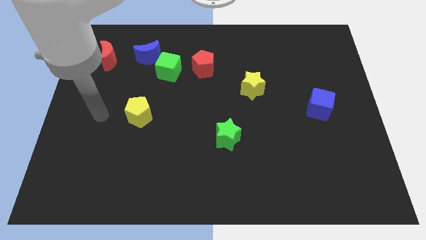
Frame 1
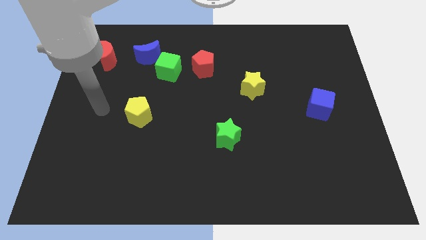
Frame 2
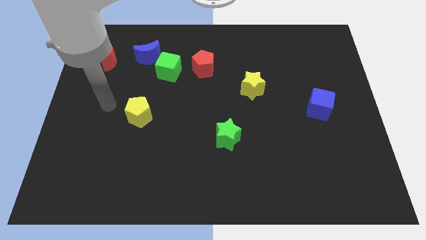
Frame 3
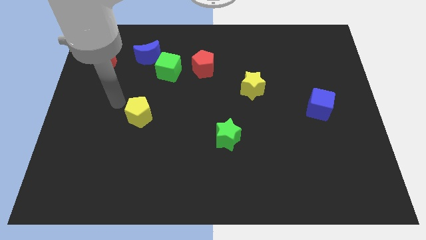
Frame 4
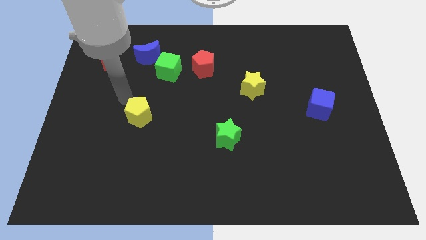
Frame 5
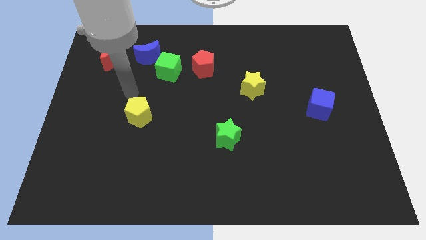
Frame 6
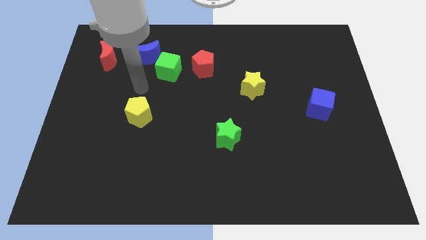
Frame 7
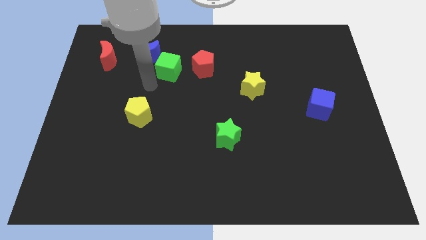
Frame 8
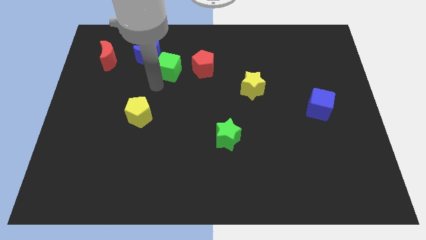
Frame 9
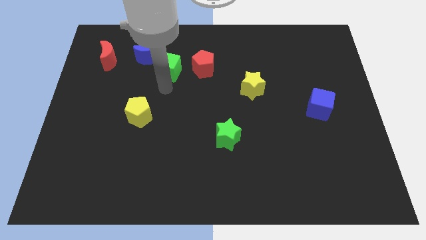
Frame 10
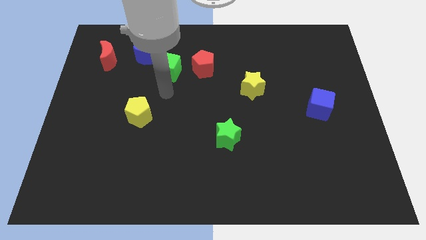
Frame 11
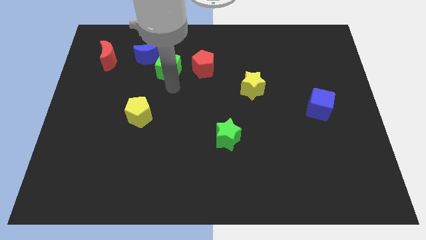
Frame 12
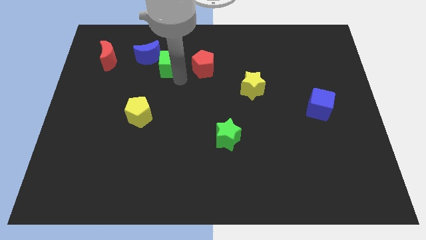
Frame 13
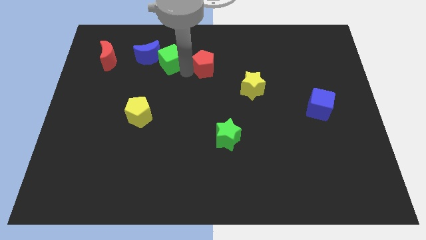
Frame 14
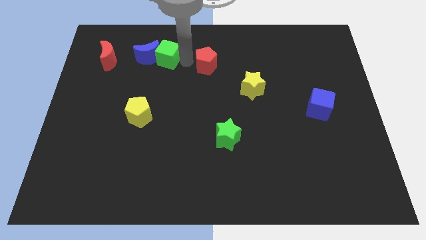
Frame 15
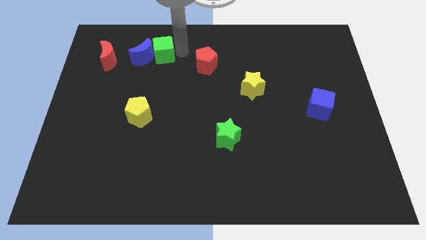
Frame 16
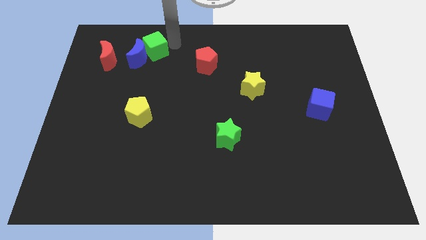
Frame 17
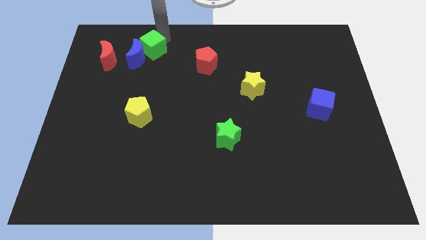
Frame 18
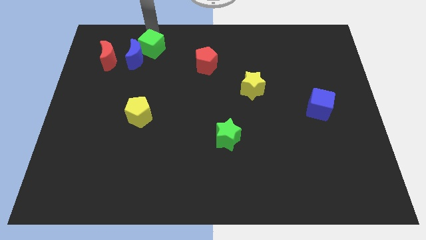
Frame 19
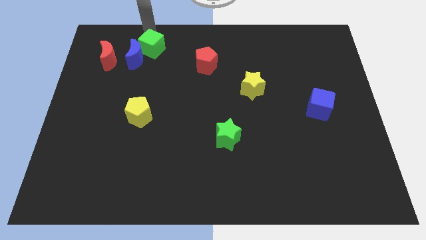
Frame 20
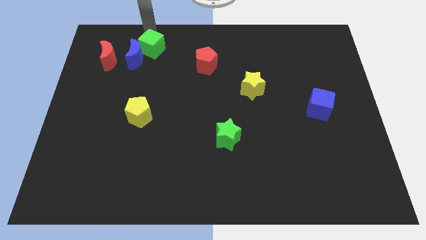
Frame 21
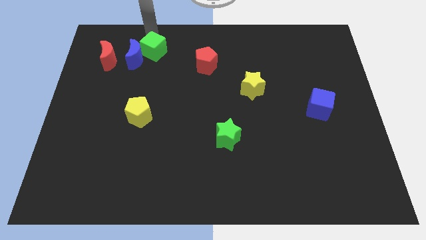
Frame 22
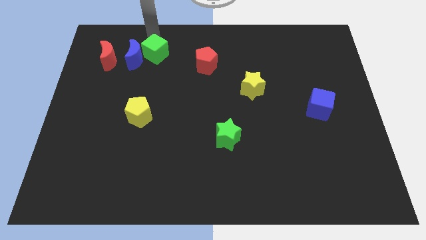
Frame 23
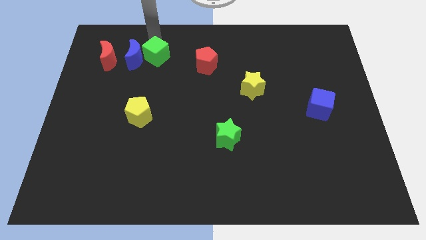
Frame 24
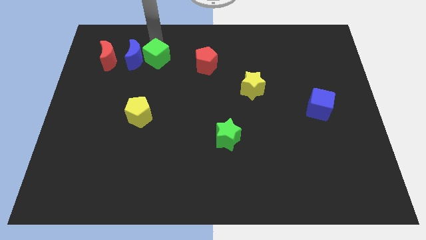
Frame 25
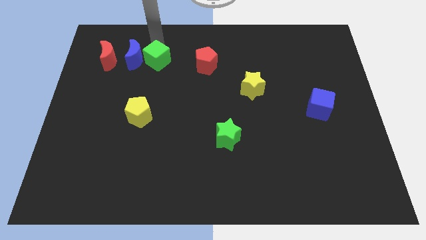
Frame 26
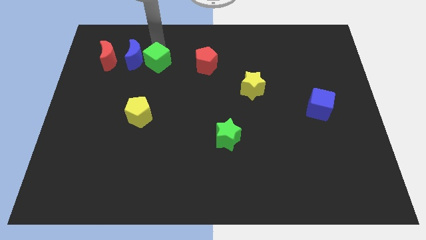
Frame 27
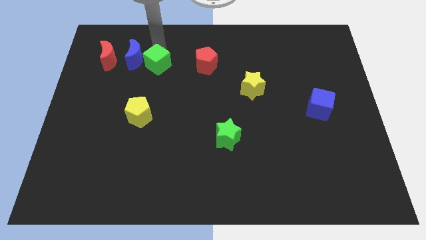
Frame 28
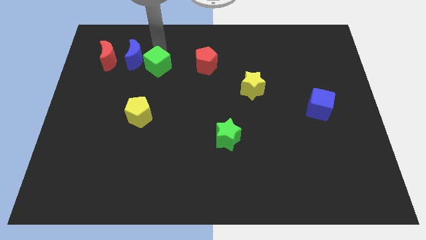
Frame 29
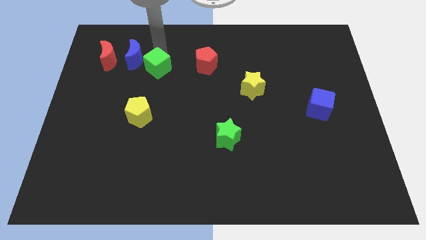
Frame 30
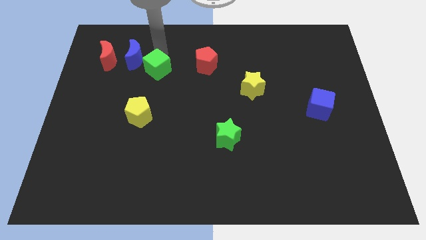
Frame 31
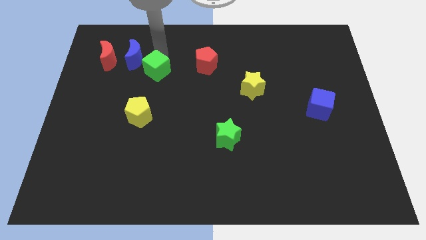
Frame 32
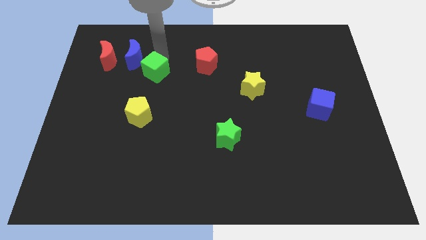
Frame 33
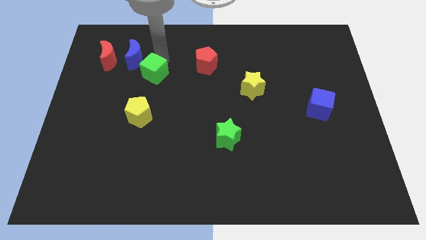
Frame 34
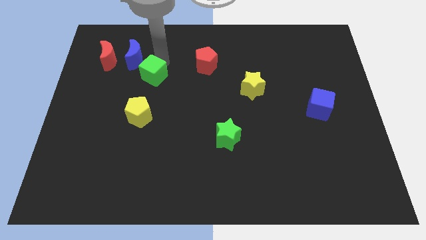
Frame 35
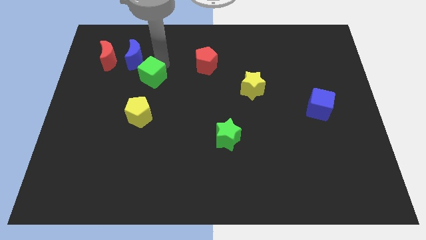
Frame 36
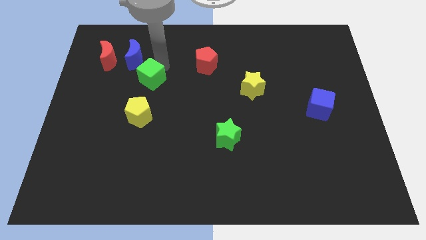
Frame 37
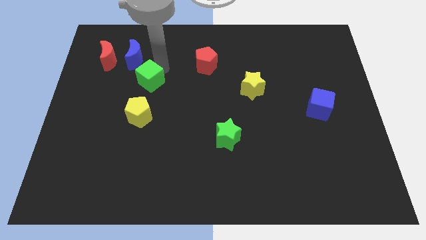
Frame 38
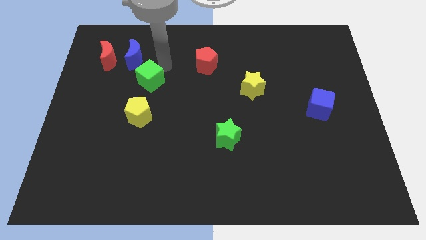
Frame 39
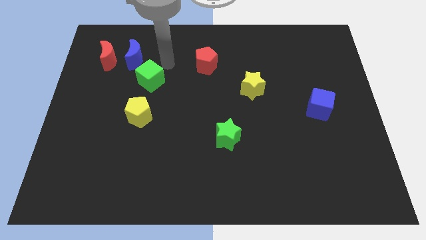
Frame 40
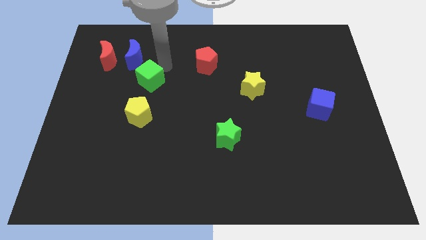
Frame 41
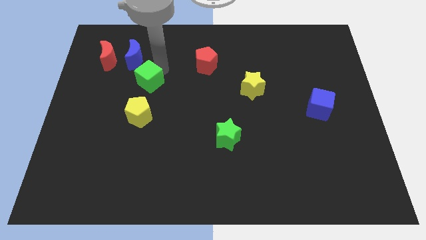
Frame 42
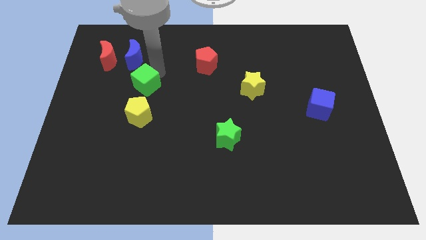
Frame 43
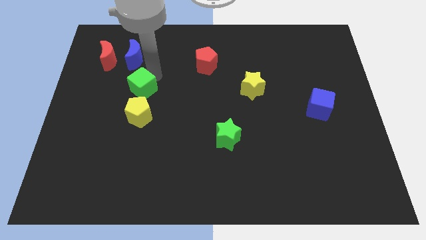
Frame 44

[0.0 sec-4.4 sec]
pull the green cube apart from the blue moon and red pentagon

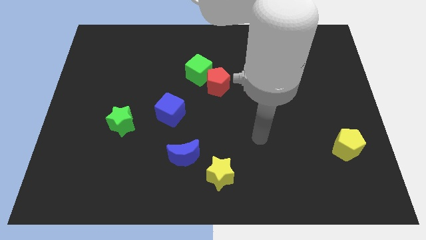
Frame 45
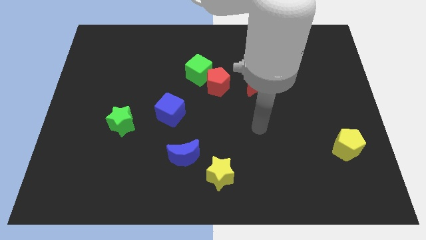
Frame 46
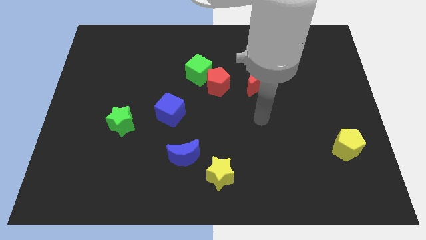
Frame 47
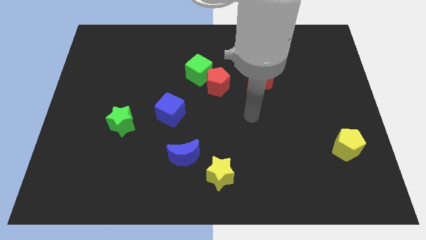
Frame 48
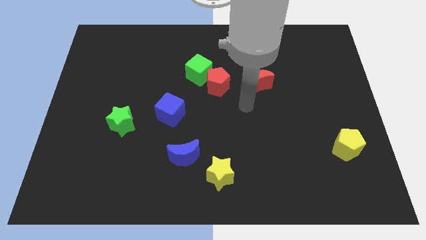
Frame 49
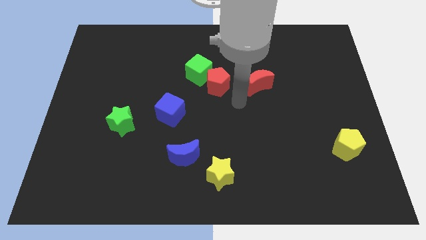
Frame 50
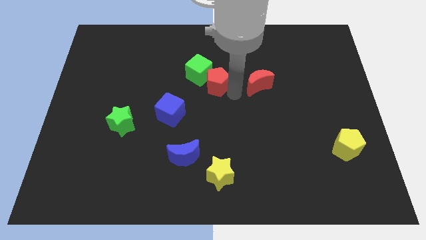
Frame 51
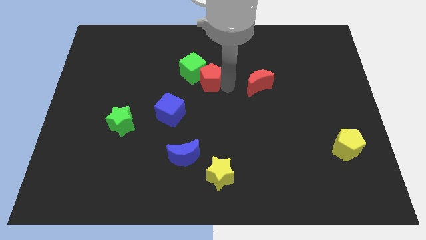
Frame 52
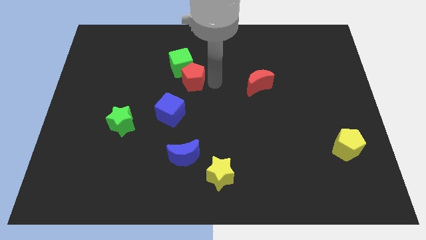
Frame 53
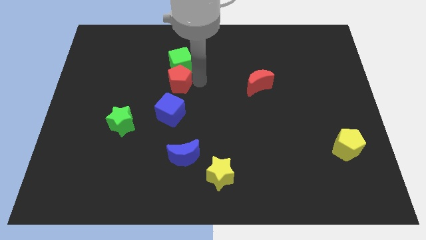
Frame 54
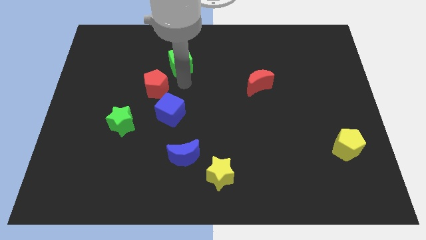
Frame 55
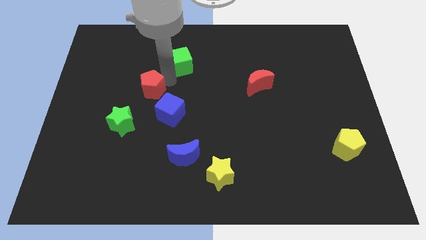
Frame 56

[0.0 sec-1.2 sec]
move the green cube away from the red pentagon

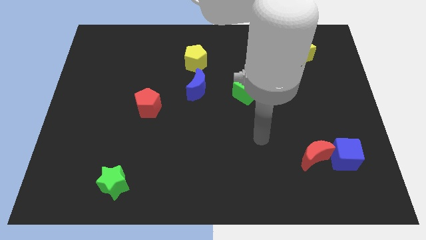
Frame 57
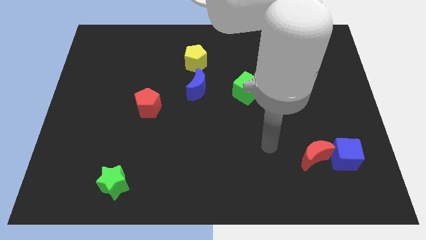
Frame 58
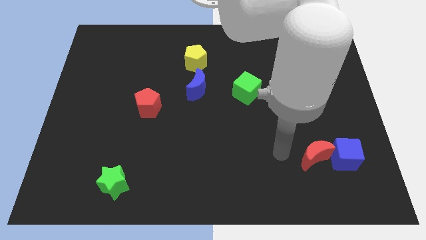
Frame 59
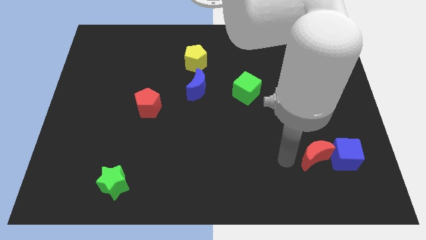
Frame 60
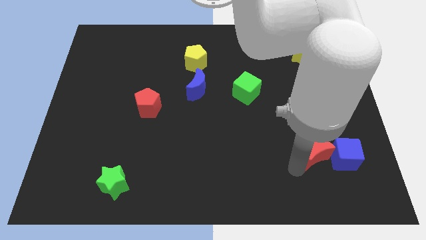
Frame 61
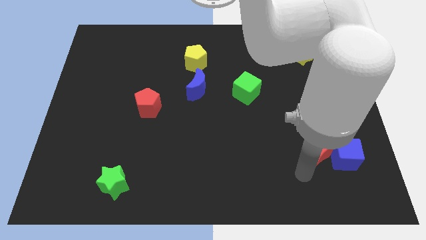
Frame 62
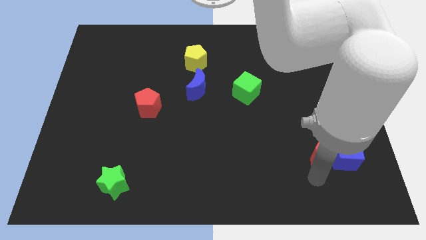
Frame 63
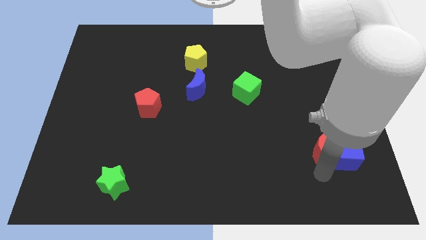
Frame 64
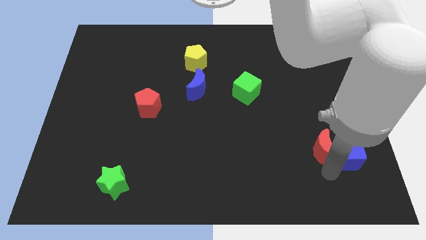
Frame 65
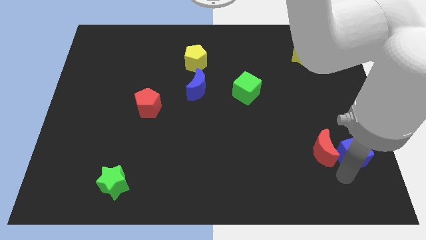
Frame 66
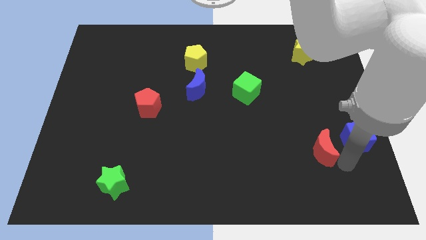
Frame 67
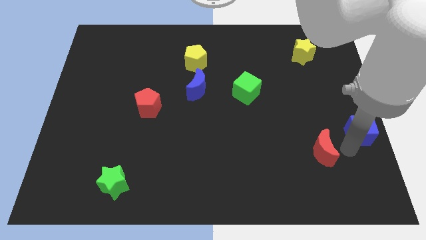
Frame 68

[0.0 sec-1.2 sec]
pull the red moon apart from the blue cube

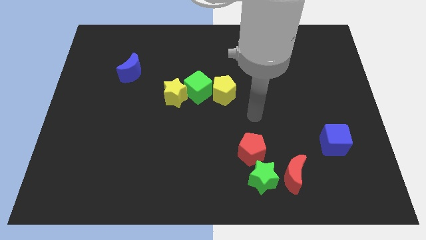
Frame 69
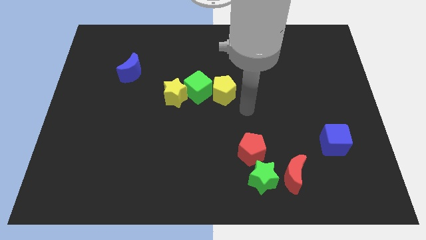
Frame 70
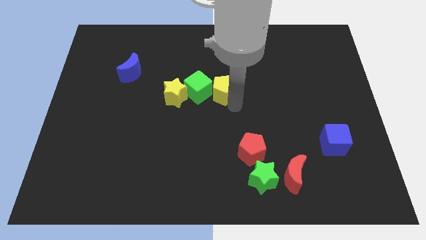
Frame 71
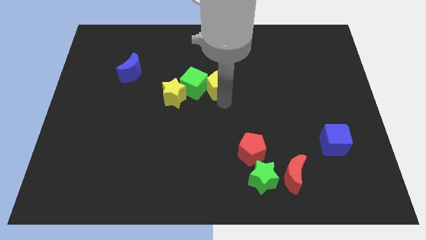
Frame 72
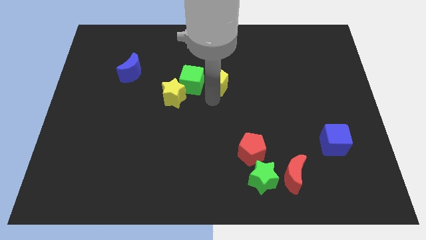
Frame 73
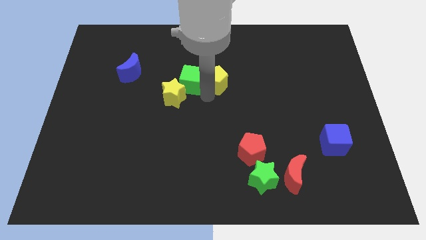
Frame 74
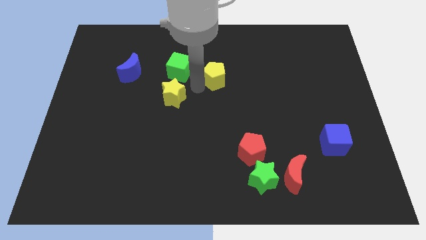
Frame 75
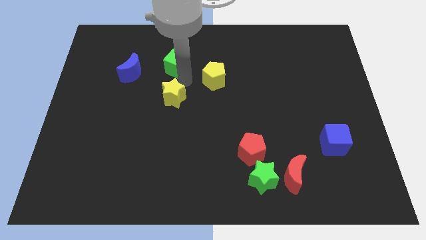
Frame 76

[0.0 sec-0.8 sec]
move the yellow star away from the green cube

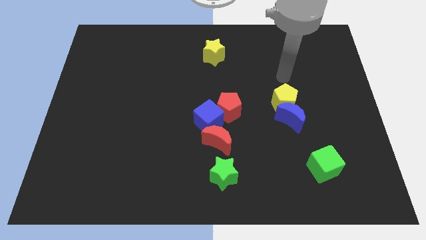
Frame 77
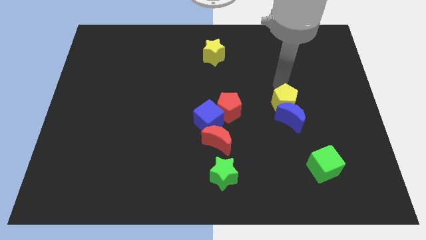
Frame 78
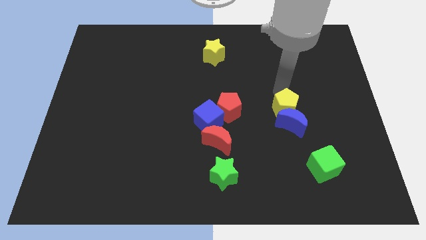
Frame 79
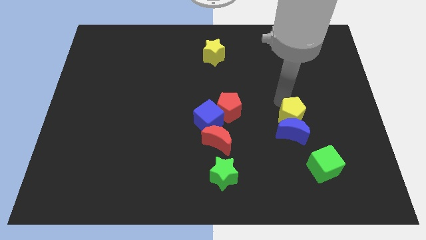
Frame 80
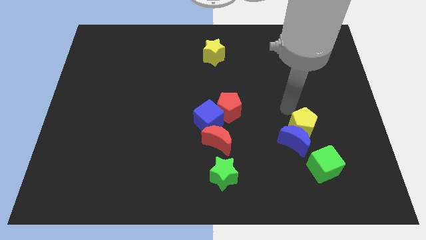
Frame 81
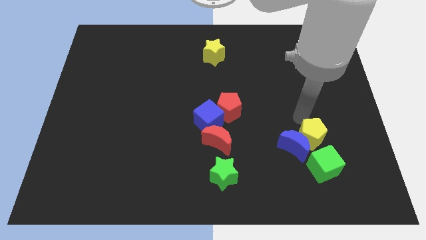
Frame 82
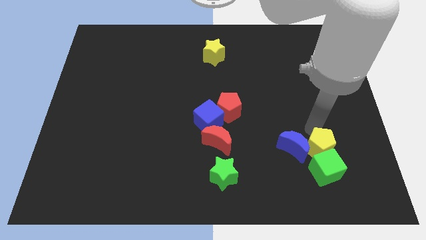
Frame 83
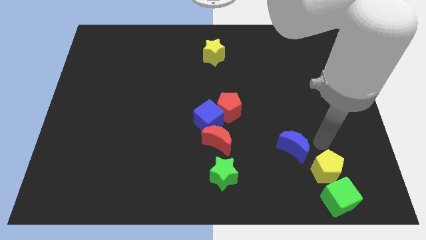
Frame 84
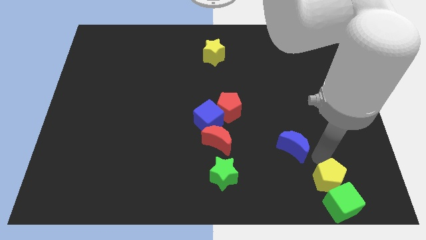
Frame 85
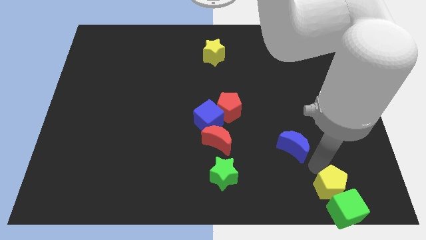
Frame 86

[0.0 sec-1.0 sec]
move the blue moon away from the yellow pentagon

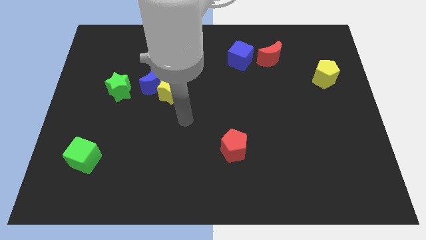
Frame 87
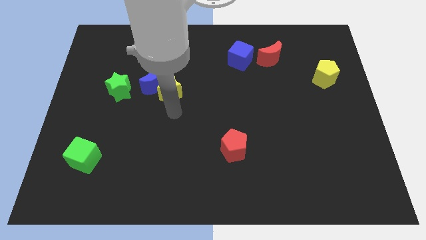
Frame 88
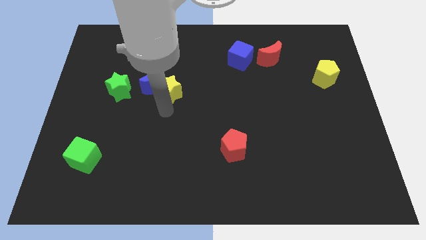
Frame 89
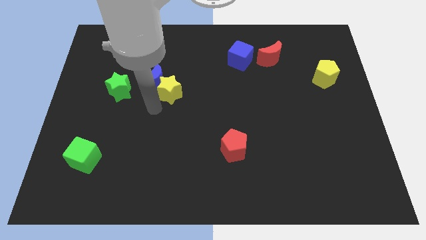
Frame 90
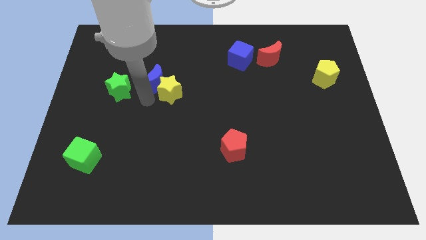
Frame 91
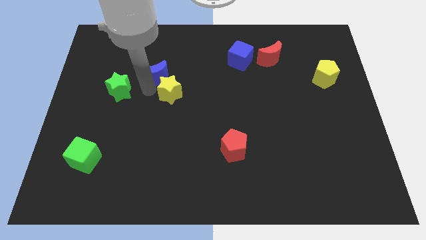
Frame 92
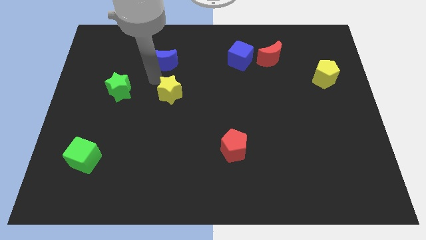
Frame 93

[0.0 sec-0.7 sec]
separate the yellow star from the blue moon
